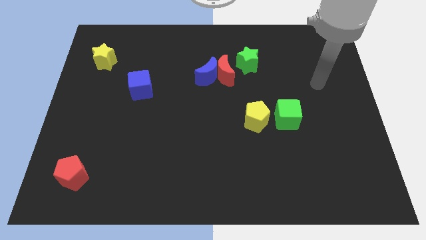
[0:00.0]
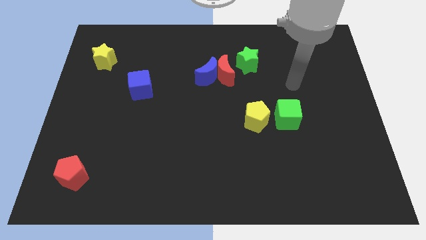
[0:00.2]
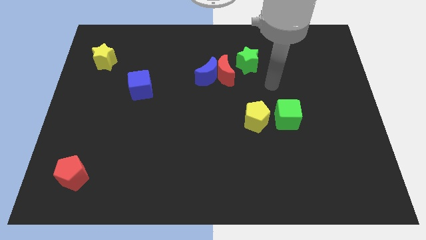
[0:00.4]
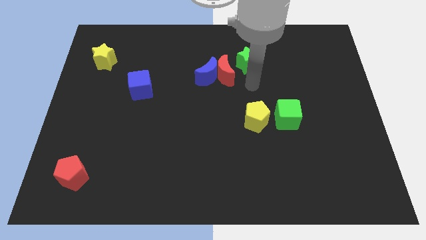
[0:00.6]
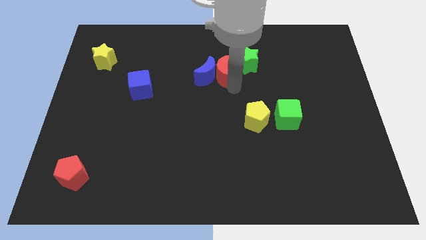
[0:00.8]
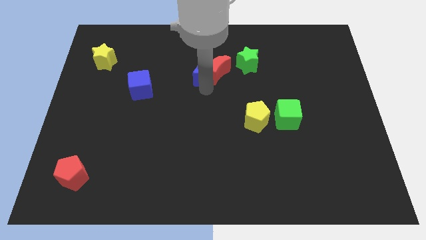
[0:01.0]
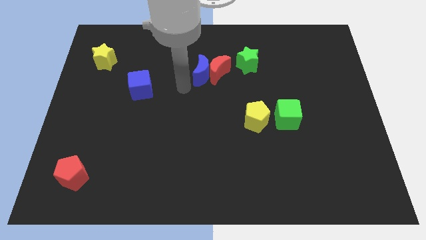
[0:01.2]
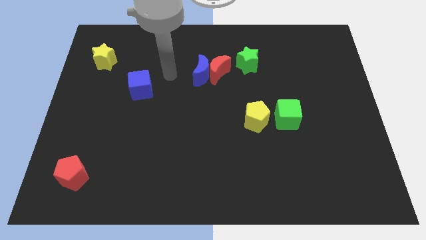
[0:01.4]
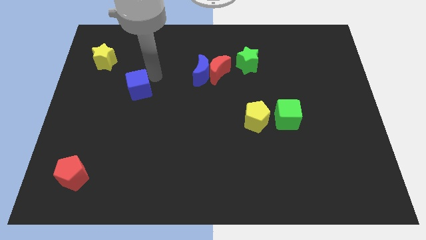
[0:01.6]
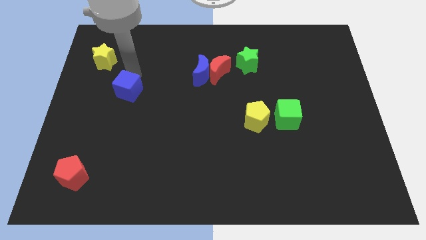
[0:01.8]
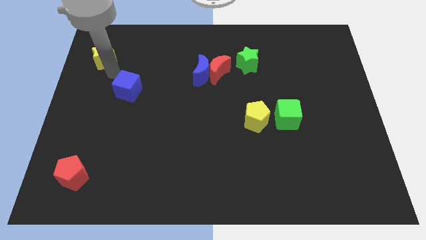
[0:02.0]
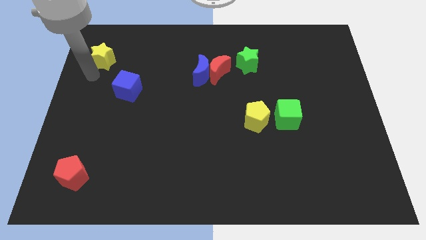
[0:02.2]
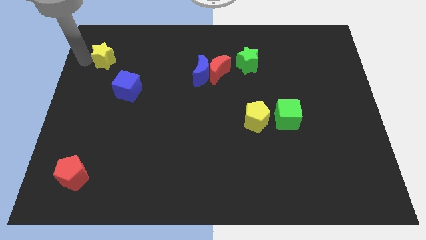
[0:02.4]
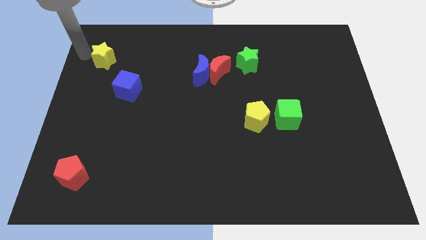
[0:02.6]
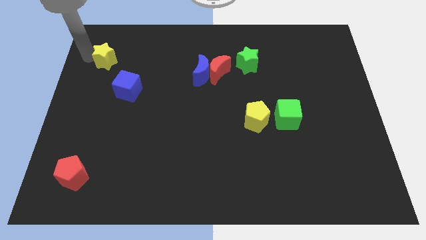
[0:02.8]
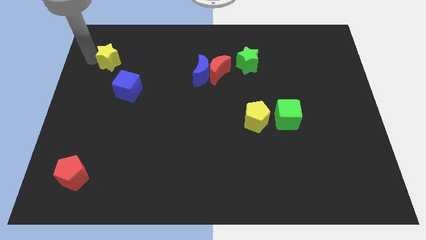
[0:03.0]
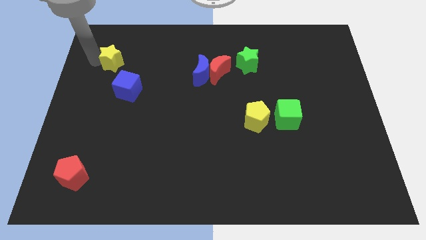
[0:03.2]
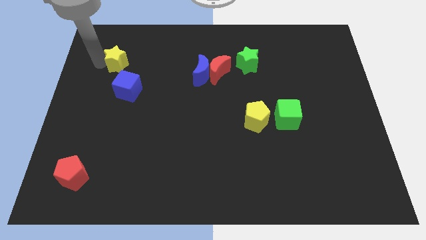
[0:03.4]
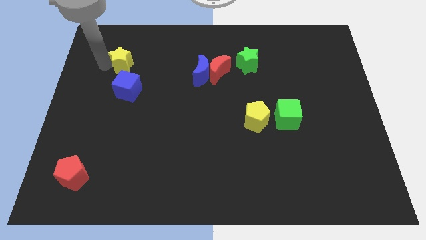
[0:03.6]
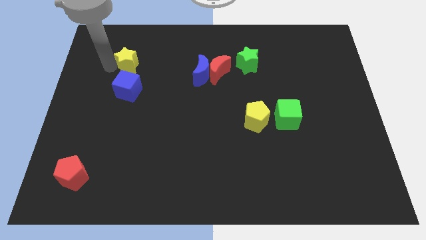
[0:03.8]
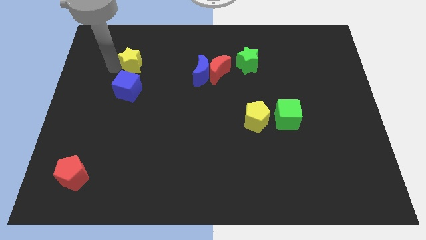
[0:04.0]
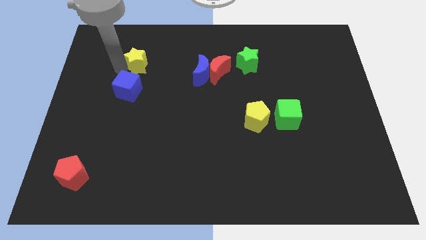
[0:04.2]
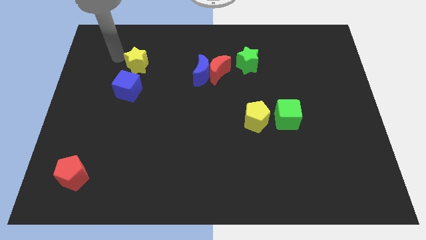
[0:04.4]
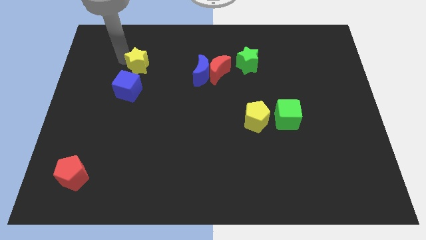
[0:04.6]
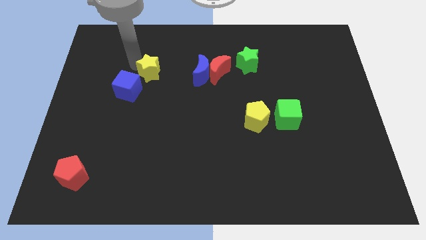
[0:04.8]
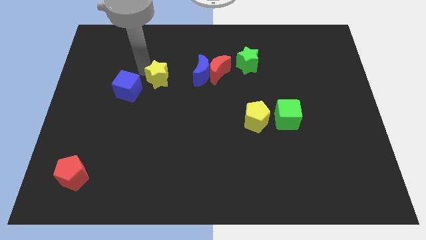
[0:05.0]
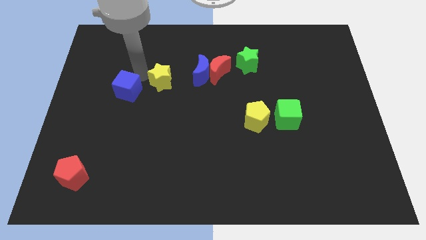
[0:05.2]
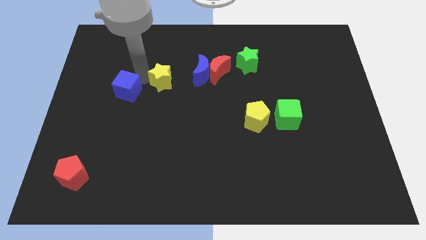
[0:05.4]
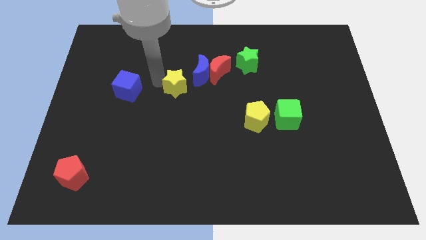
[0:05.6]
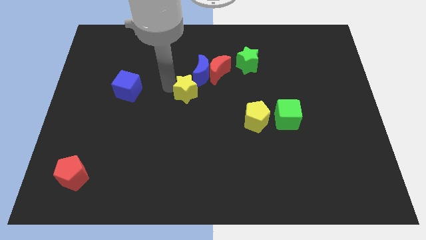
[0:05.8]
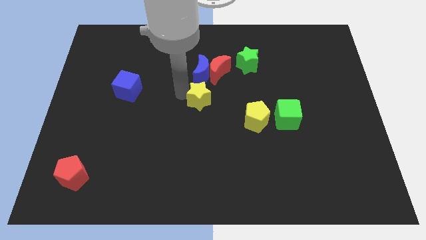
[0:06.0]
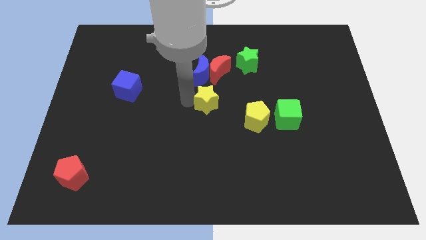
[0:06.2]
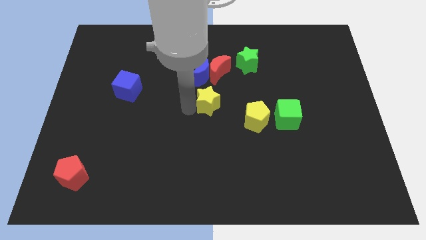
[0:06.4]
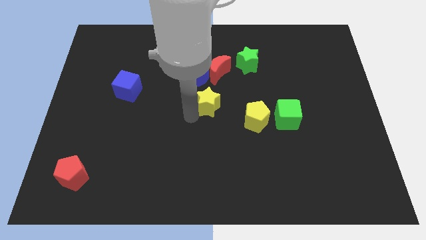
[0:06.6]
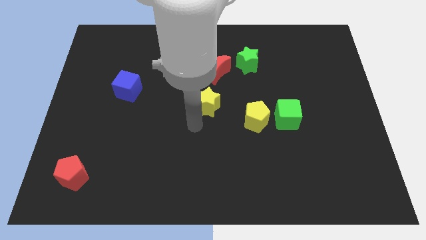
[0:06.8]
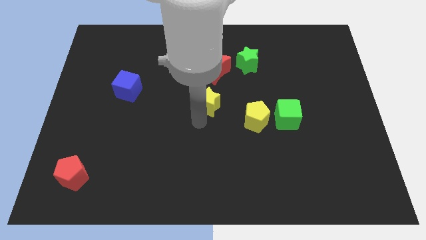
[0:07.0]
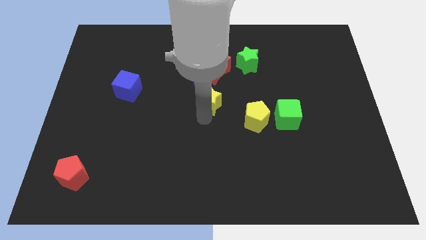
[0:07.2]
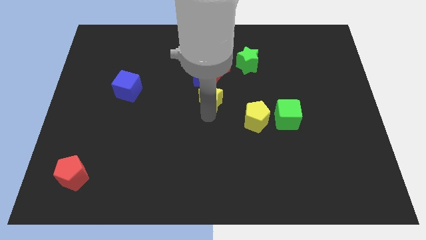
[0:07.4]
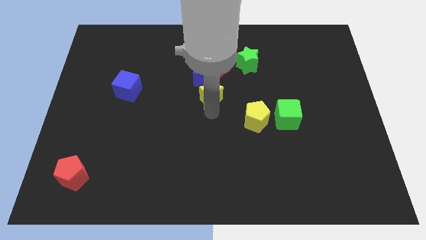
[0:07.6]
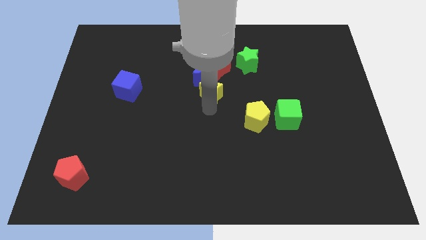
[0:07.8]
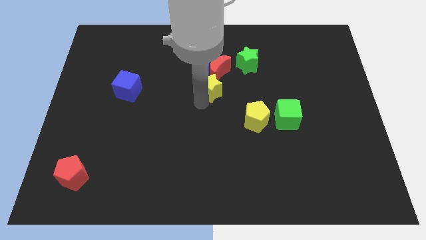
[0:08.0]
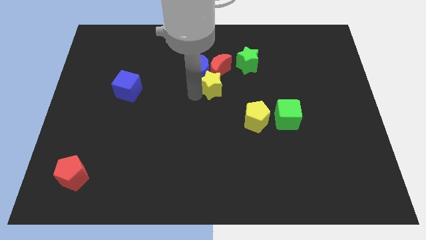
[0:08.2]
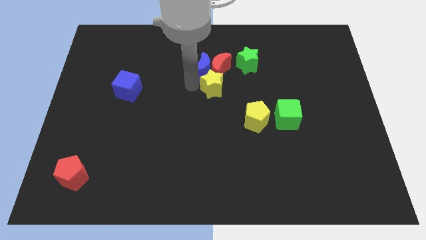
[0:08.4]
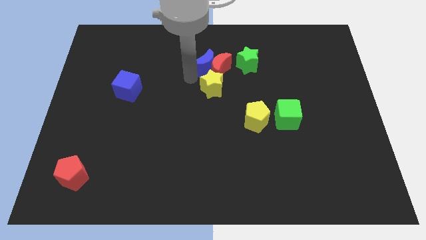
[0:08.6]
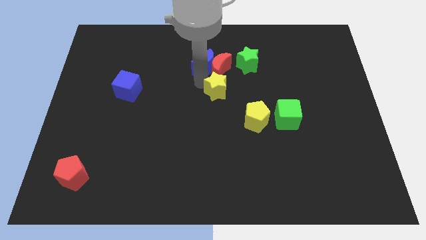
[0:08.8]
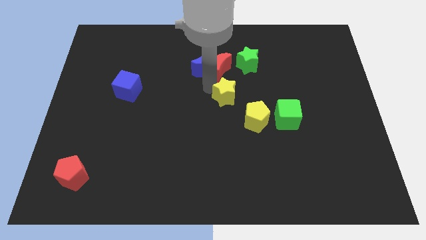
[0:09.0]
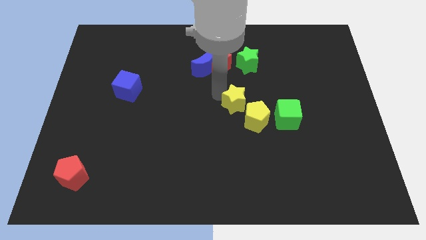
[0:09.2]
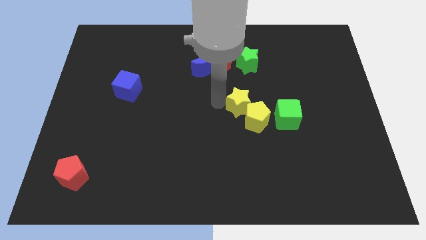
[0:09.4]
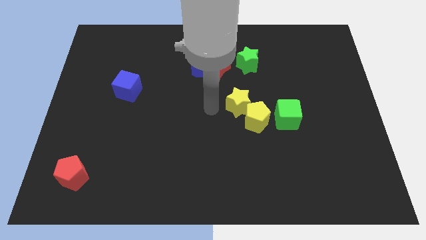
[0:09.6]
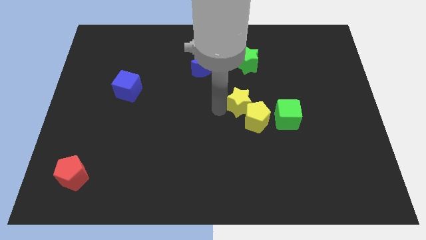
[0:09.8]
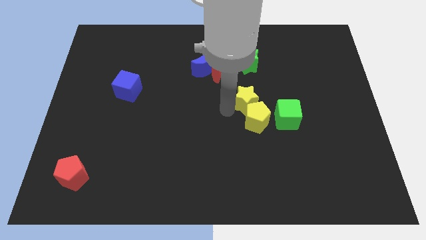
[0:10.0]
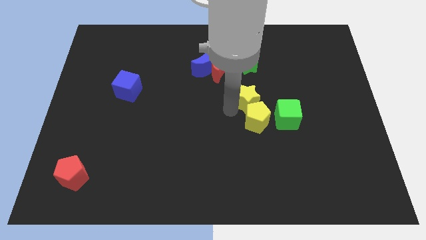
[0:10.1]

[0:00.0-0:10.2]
put the yellow star to the top right side of the yellow pentagon

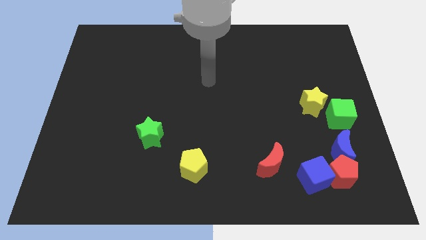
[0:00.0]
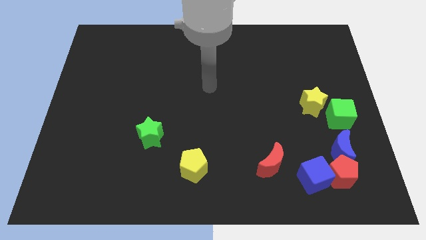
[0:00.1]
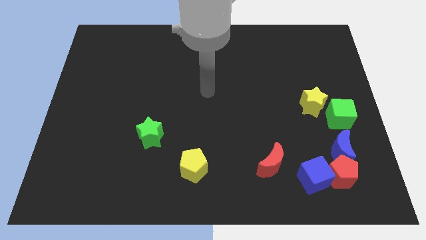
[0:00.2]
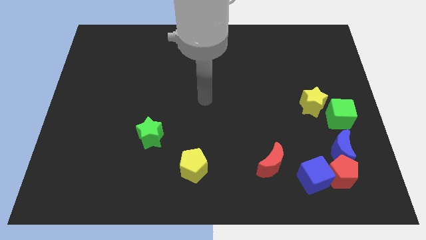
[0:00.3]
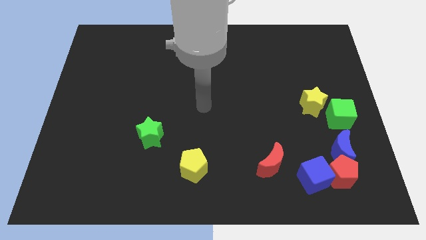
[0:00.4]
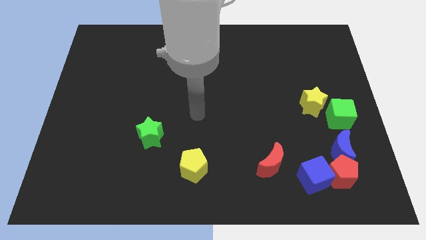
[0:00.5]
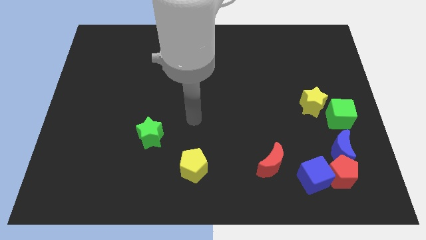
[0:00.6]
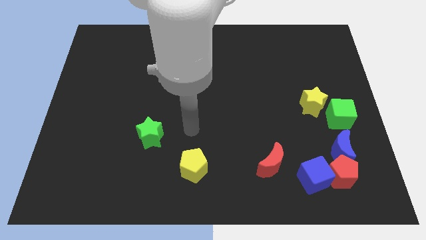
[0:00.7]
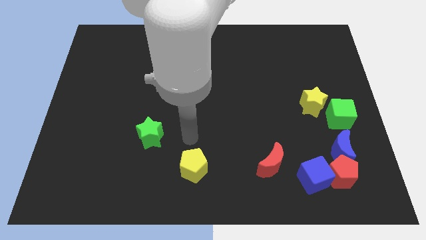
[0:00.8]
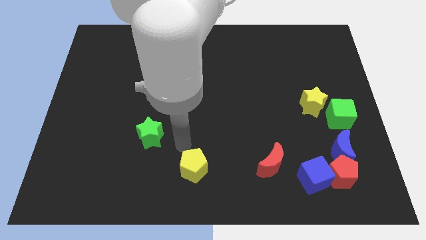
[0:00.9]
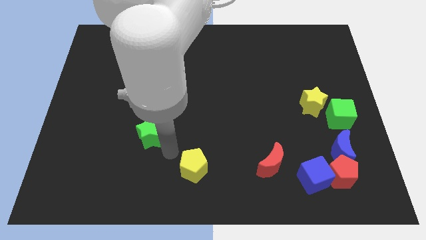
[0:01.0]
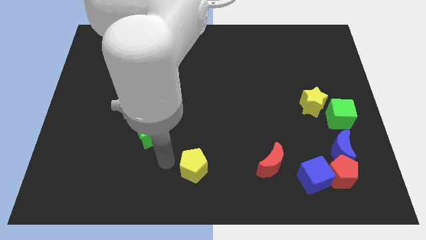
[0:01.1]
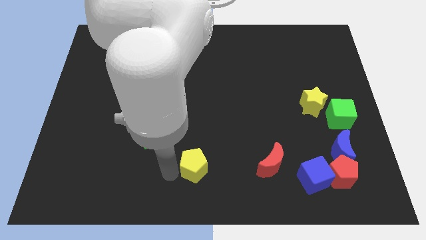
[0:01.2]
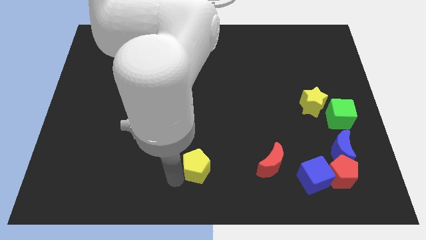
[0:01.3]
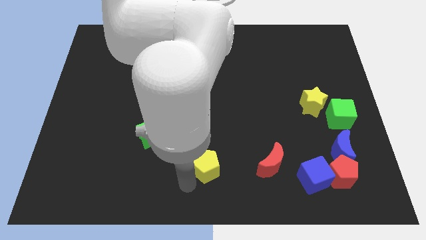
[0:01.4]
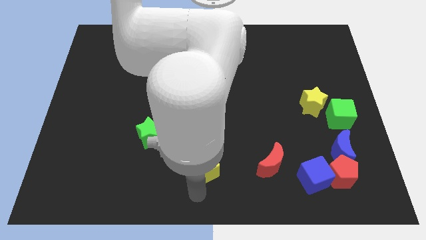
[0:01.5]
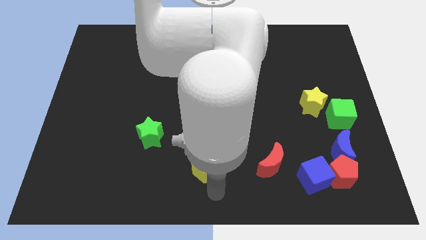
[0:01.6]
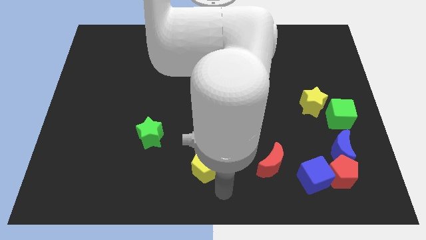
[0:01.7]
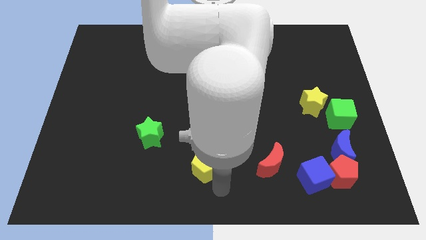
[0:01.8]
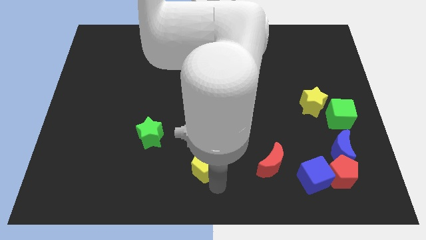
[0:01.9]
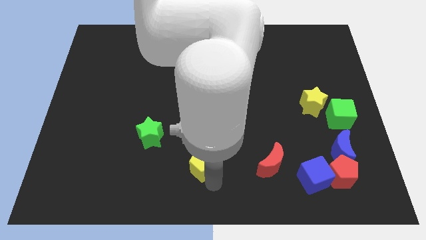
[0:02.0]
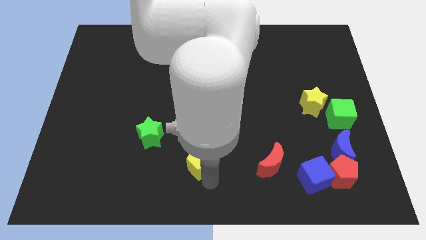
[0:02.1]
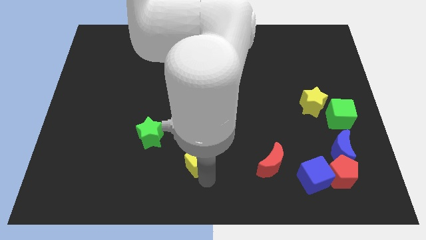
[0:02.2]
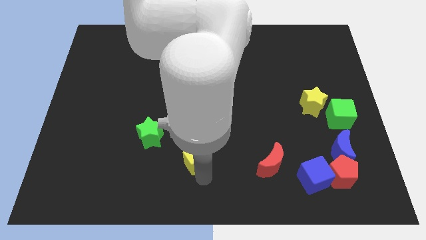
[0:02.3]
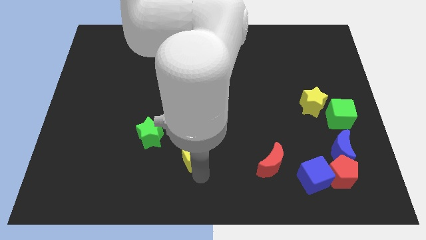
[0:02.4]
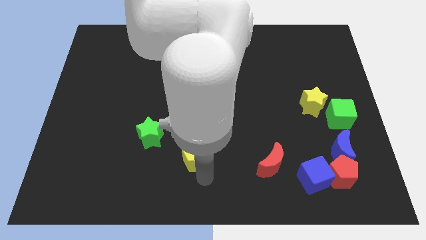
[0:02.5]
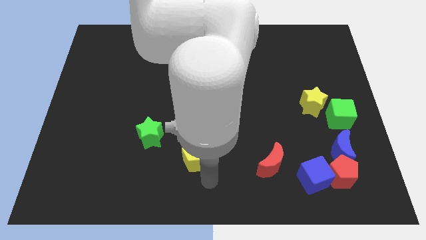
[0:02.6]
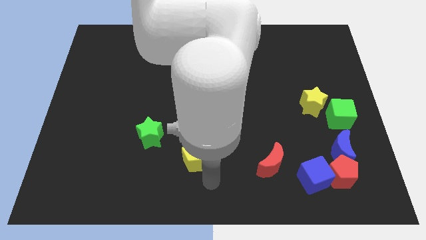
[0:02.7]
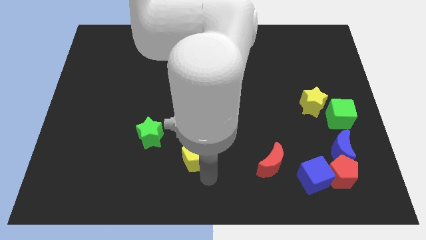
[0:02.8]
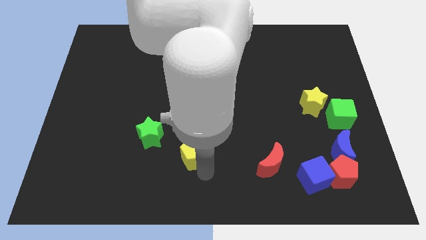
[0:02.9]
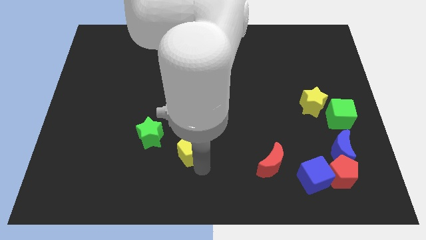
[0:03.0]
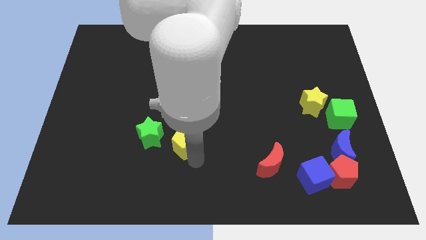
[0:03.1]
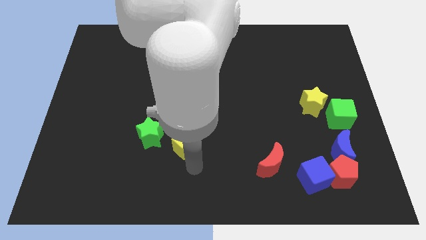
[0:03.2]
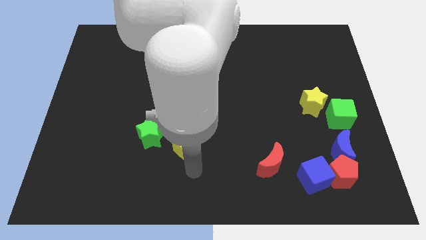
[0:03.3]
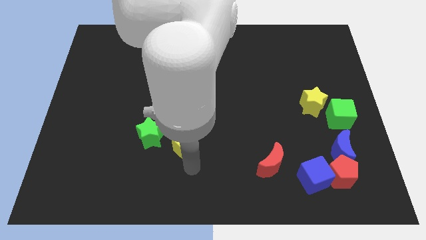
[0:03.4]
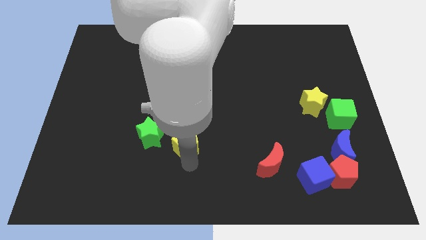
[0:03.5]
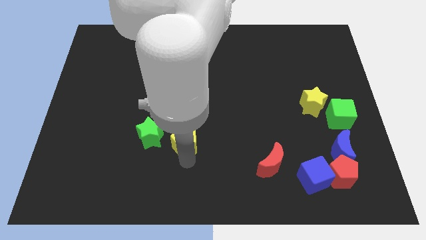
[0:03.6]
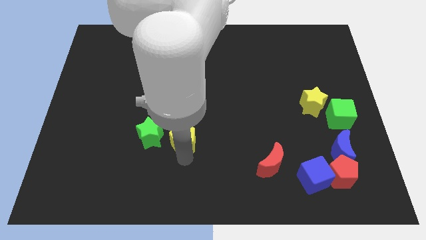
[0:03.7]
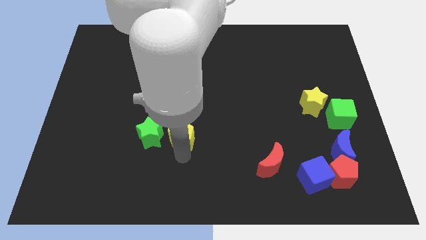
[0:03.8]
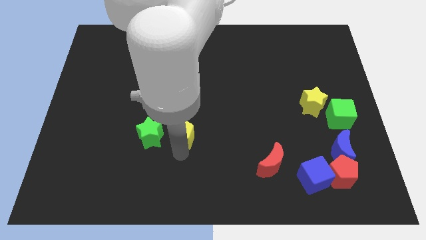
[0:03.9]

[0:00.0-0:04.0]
move the yellow pentagon diagonally up and to the right of the green star
